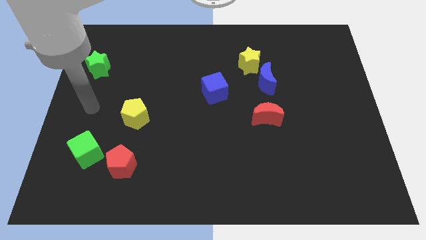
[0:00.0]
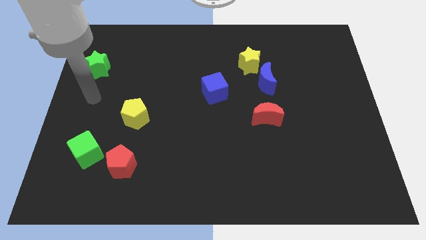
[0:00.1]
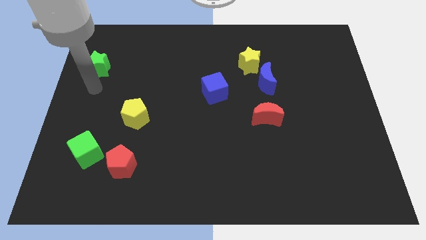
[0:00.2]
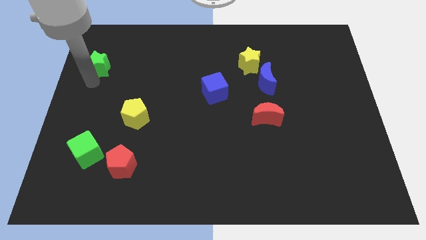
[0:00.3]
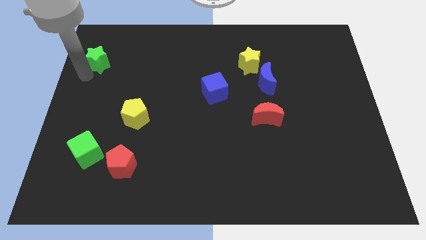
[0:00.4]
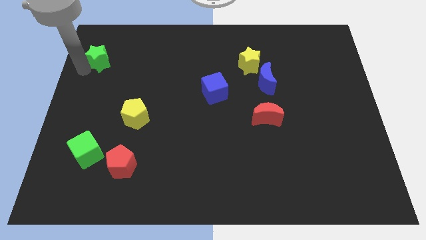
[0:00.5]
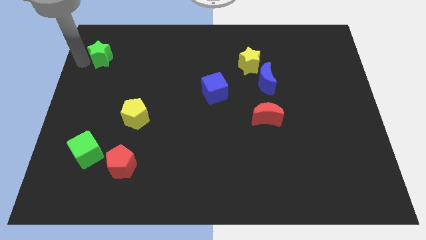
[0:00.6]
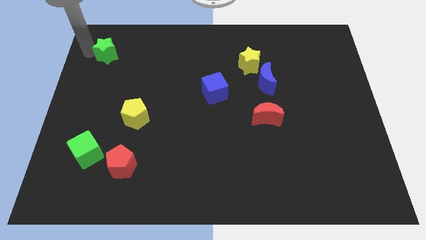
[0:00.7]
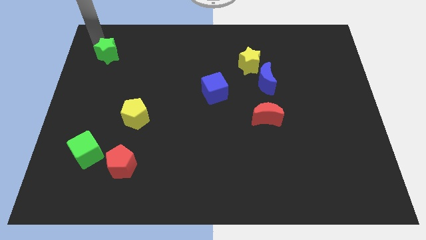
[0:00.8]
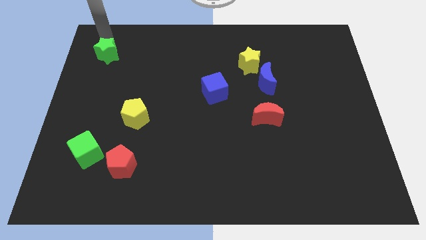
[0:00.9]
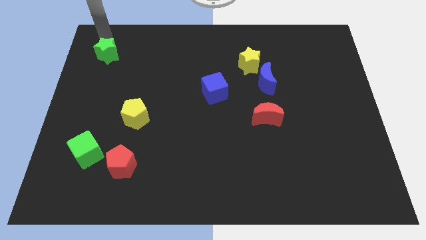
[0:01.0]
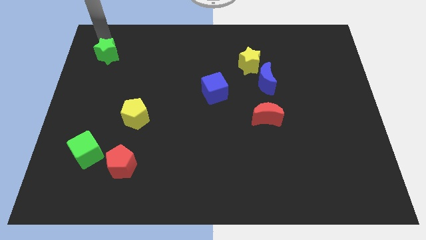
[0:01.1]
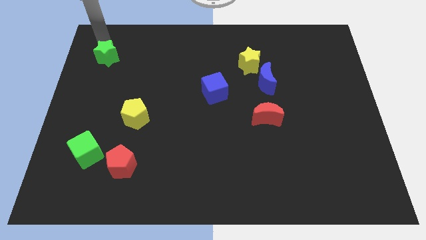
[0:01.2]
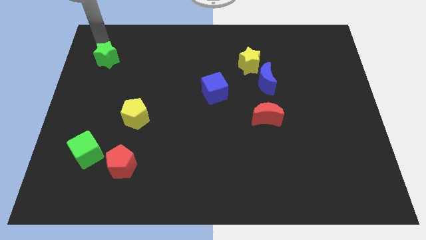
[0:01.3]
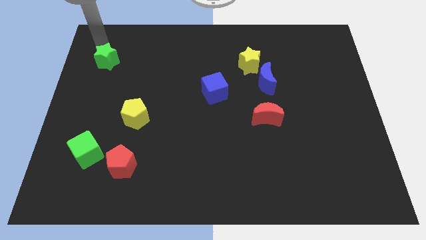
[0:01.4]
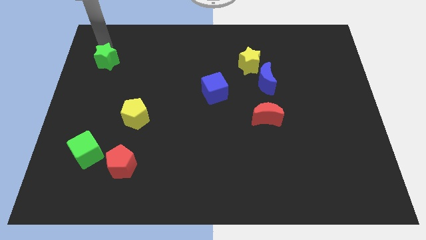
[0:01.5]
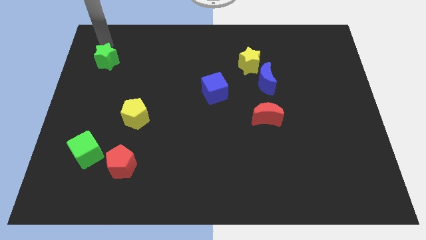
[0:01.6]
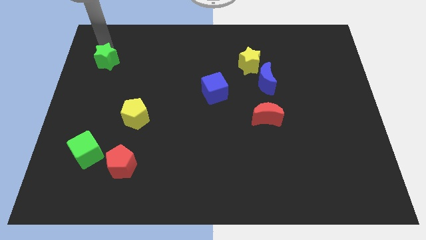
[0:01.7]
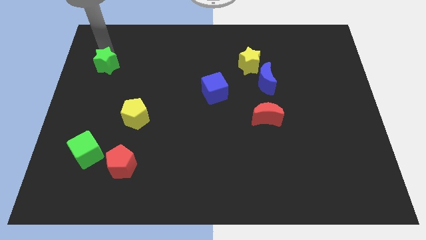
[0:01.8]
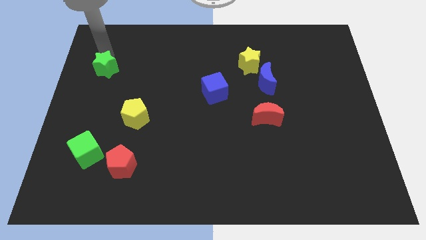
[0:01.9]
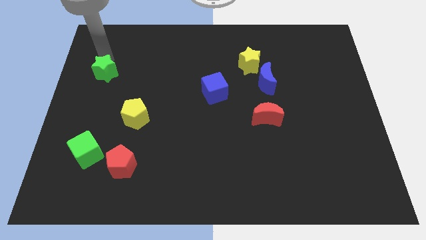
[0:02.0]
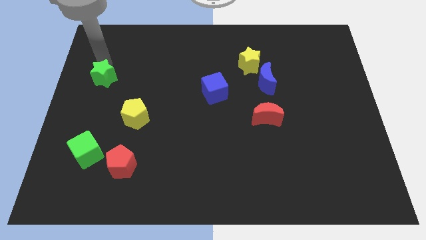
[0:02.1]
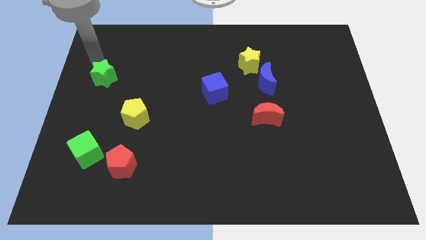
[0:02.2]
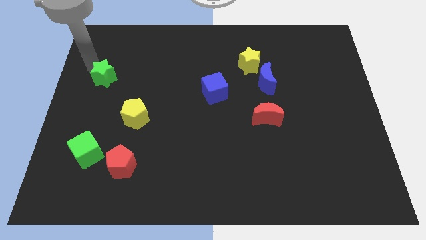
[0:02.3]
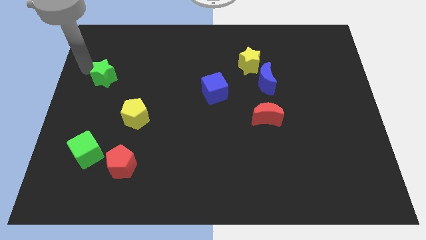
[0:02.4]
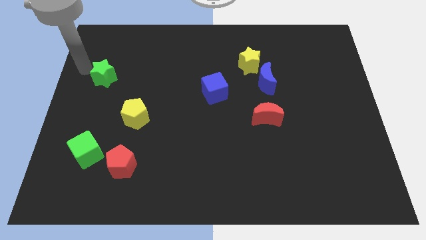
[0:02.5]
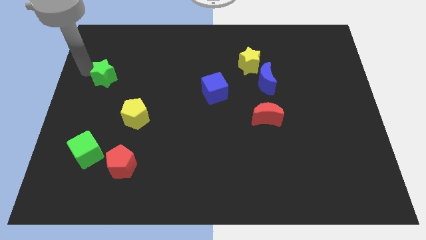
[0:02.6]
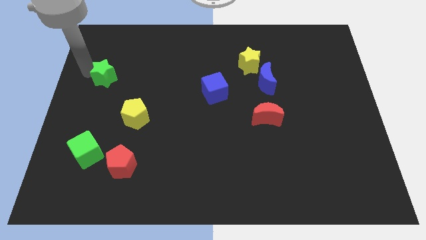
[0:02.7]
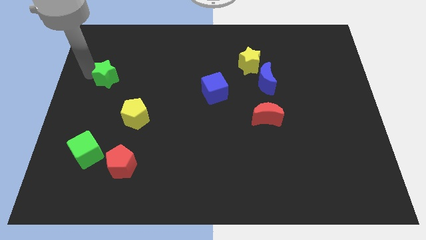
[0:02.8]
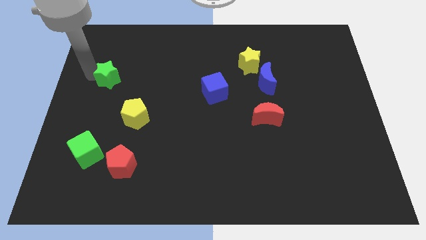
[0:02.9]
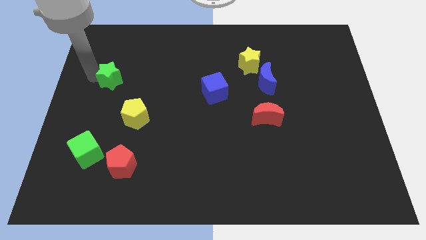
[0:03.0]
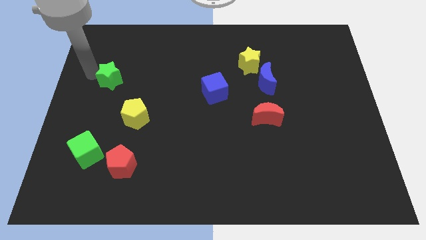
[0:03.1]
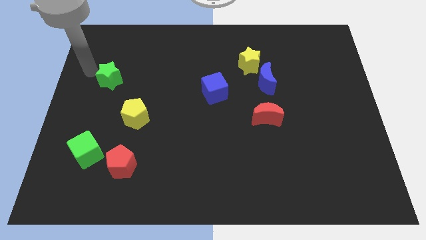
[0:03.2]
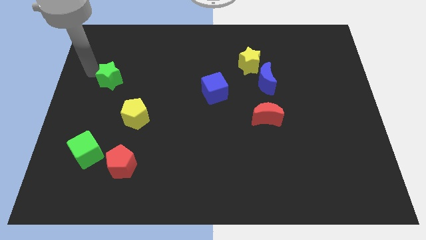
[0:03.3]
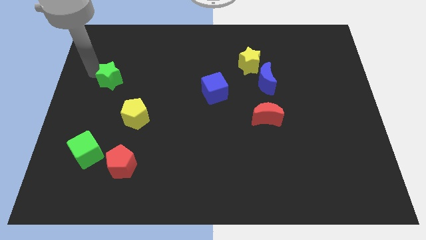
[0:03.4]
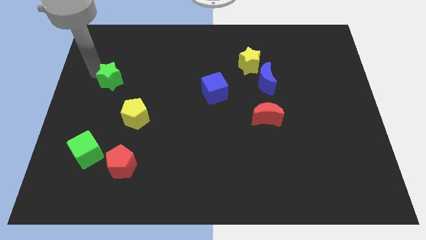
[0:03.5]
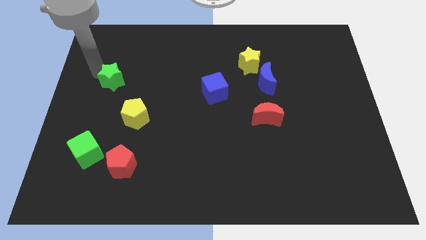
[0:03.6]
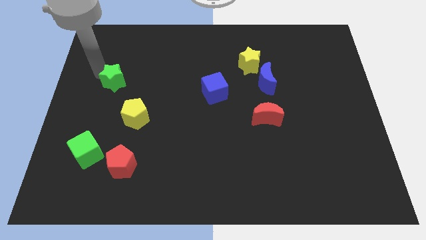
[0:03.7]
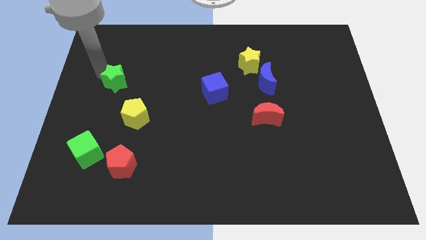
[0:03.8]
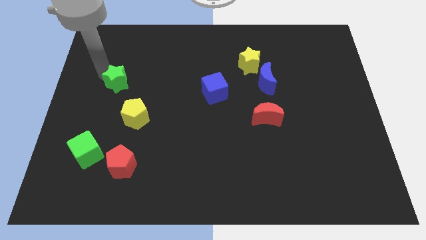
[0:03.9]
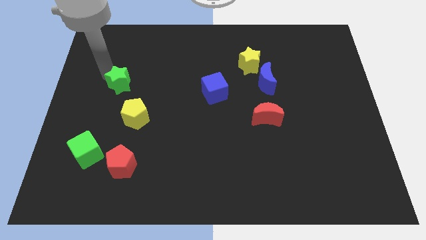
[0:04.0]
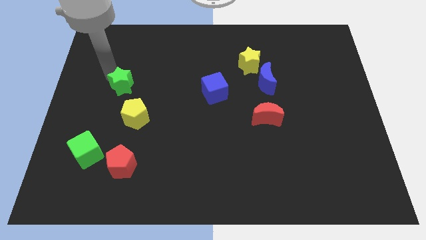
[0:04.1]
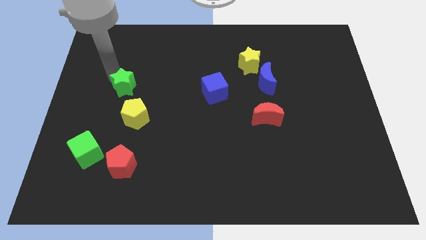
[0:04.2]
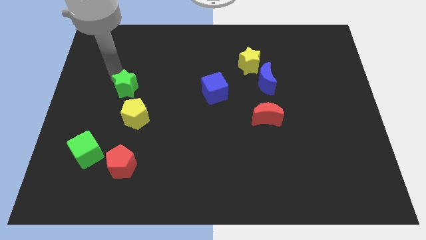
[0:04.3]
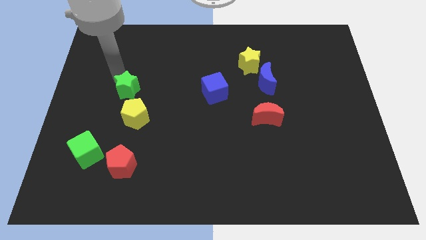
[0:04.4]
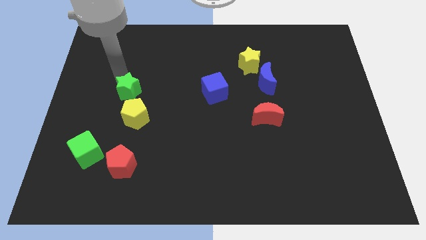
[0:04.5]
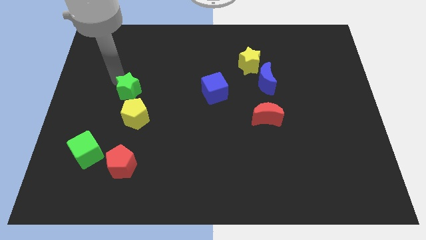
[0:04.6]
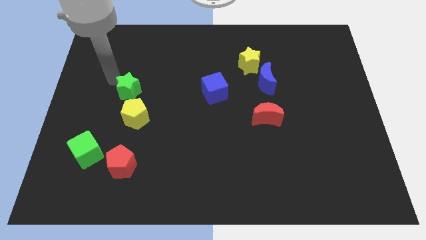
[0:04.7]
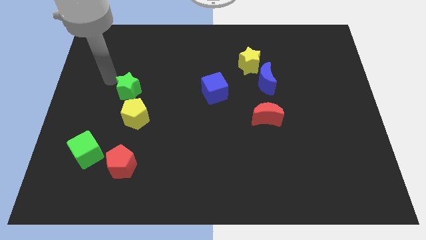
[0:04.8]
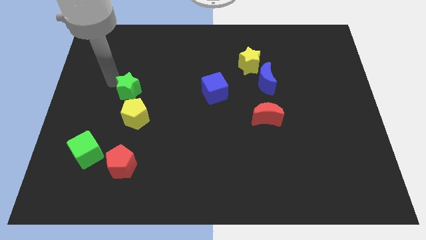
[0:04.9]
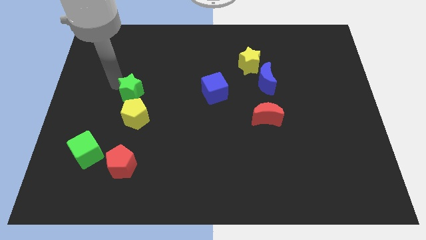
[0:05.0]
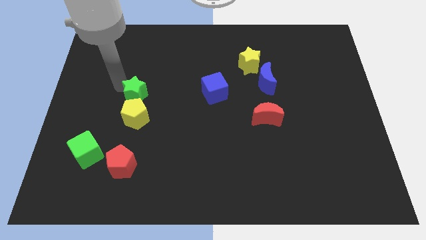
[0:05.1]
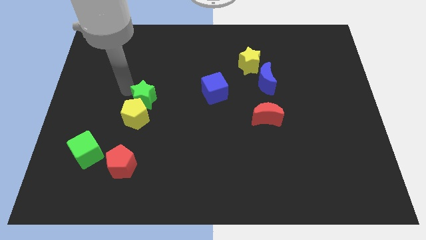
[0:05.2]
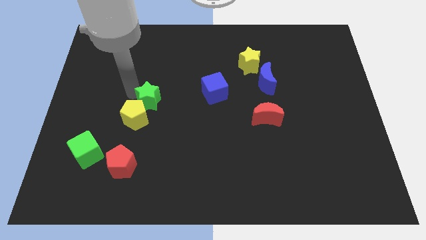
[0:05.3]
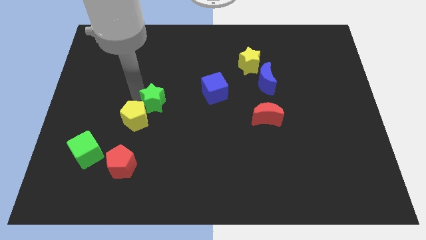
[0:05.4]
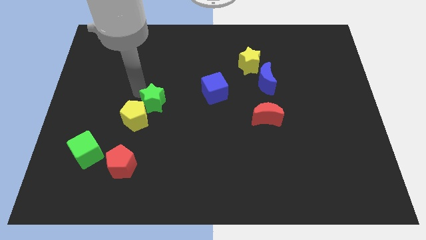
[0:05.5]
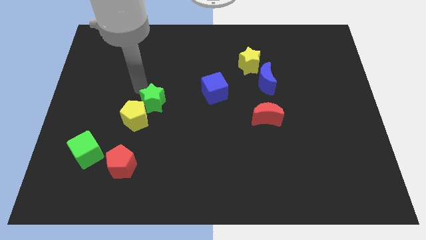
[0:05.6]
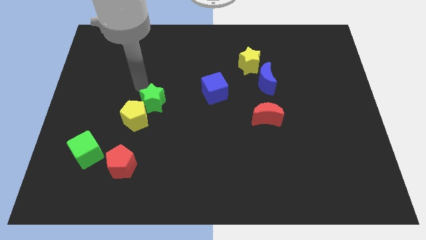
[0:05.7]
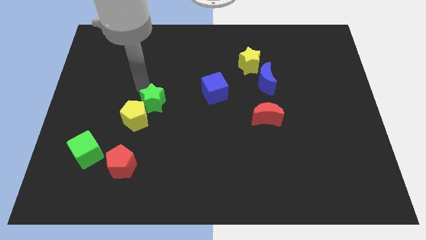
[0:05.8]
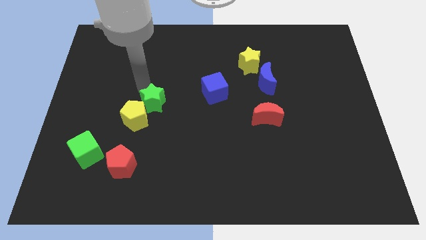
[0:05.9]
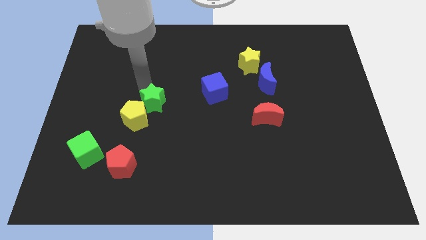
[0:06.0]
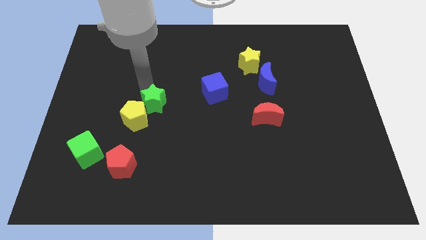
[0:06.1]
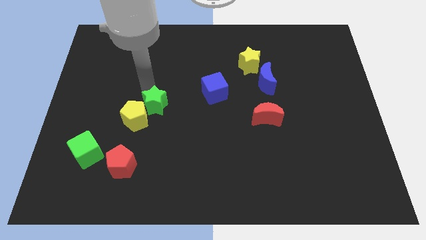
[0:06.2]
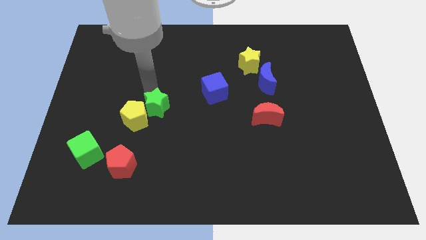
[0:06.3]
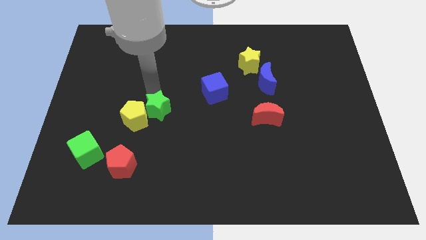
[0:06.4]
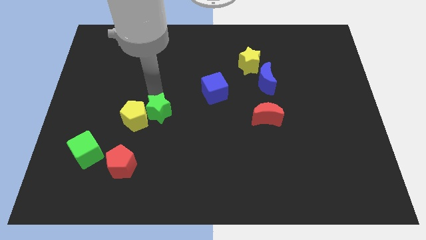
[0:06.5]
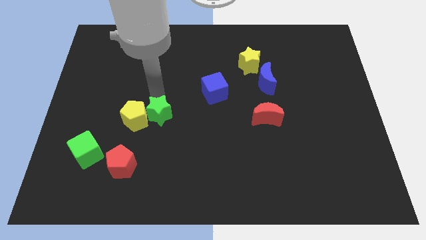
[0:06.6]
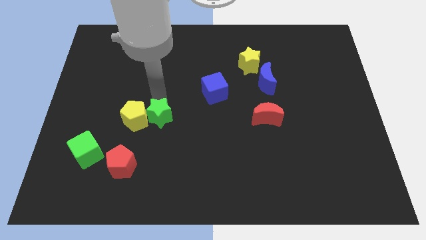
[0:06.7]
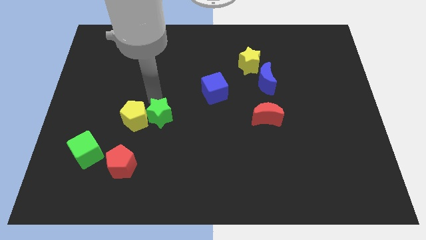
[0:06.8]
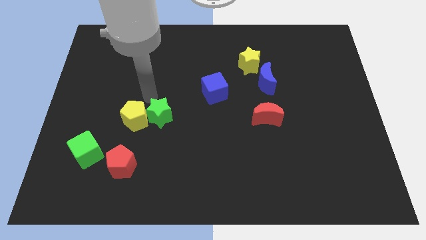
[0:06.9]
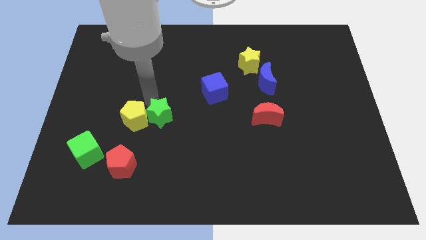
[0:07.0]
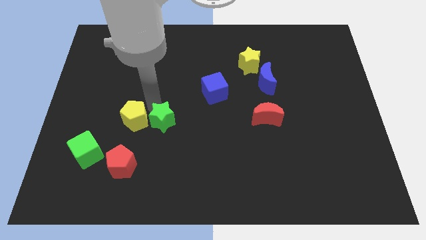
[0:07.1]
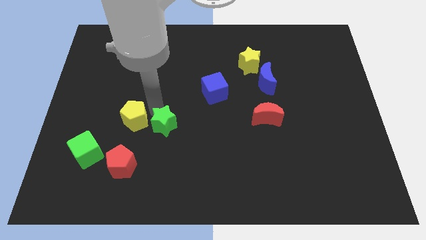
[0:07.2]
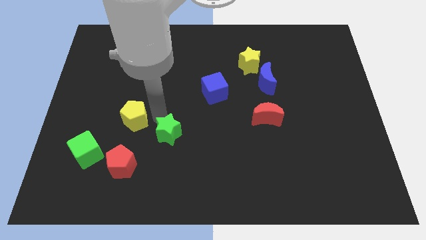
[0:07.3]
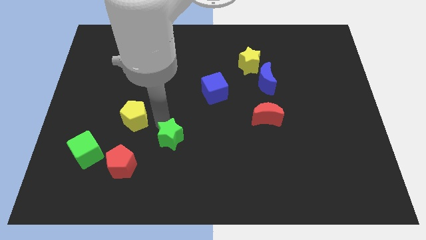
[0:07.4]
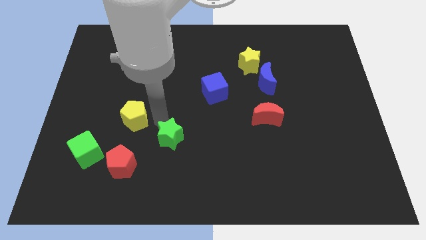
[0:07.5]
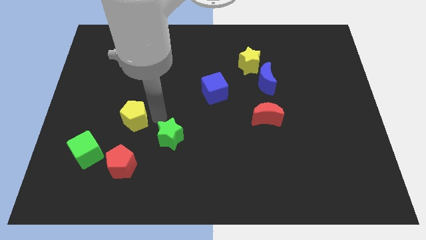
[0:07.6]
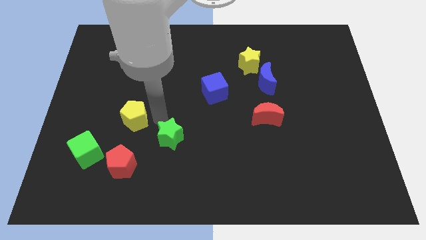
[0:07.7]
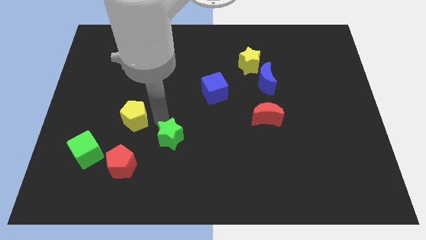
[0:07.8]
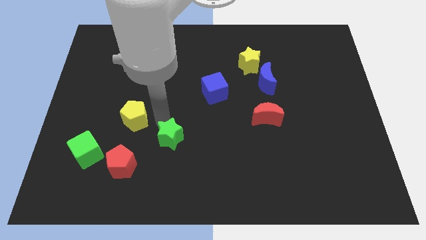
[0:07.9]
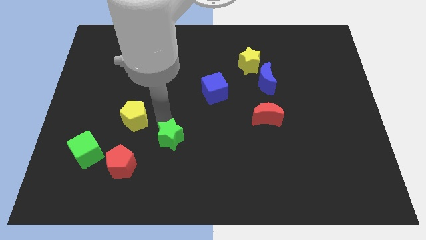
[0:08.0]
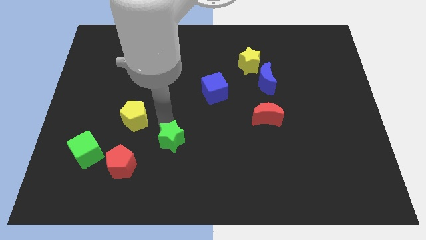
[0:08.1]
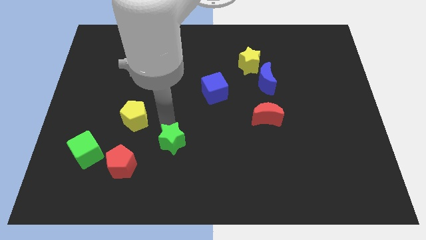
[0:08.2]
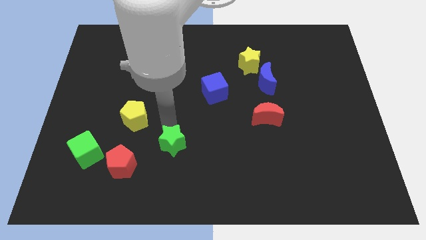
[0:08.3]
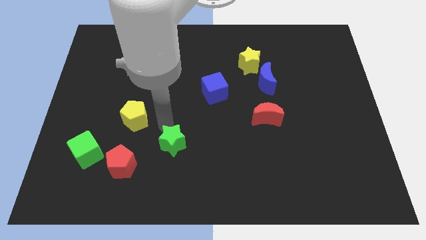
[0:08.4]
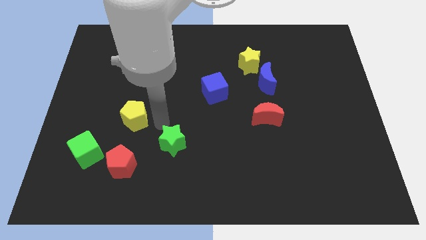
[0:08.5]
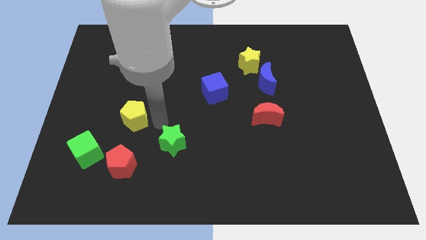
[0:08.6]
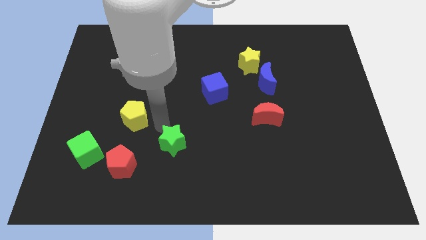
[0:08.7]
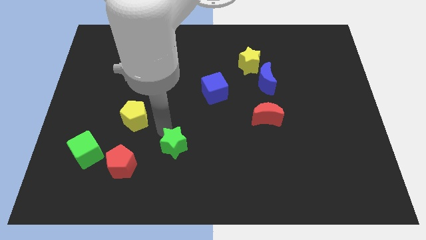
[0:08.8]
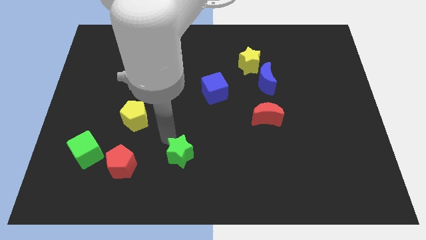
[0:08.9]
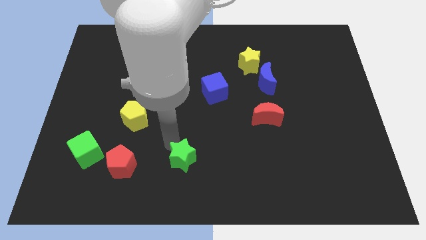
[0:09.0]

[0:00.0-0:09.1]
slide the green star to the bottom
